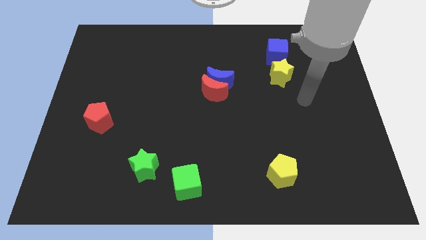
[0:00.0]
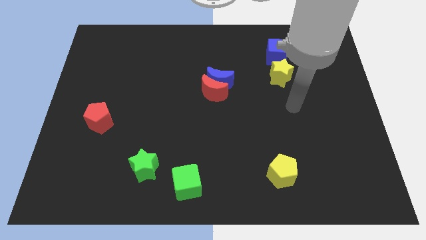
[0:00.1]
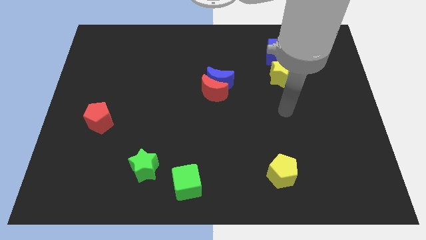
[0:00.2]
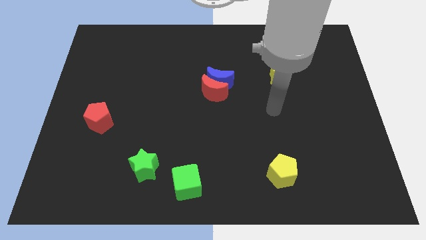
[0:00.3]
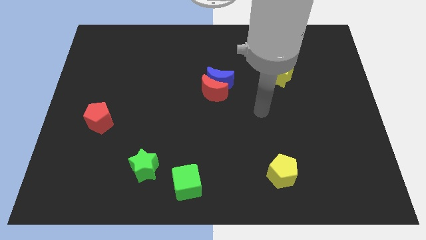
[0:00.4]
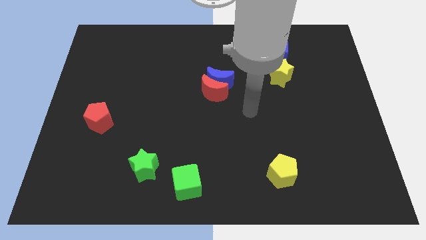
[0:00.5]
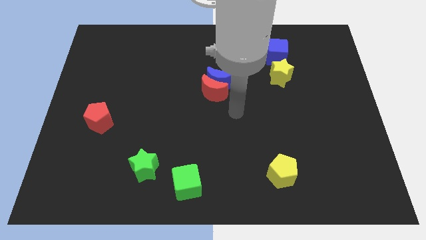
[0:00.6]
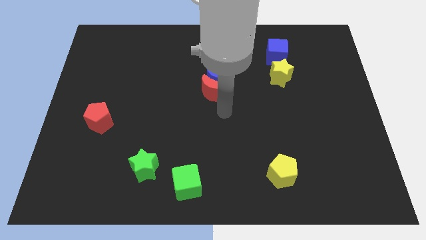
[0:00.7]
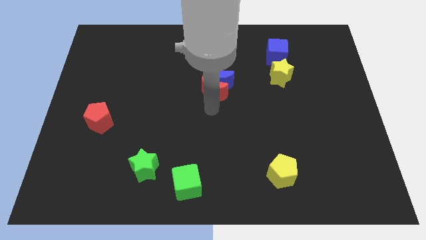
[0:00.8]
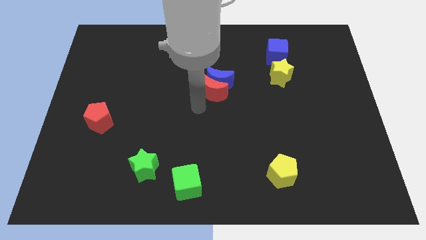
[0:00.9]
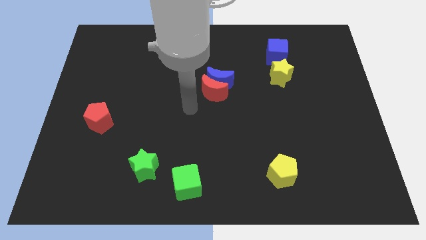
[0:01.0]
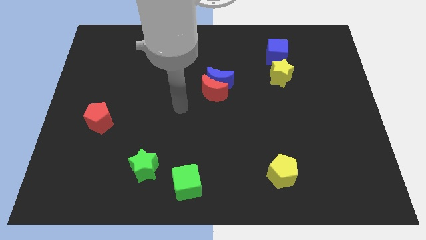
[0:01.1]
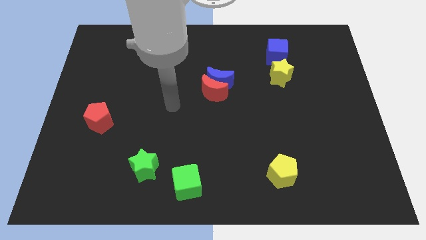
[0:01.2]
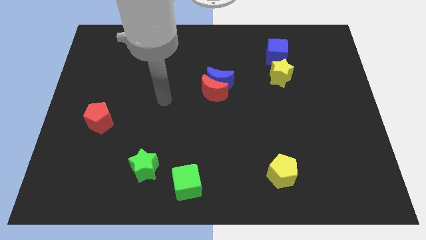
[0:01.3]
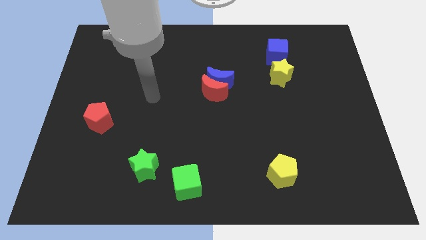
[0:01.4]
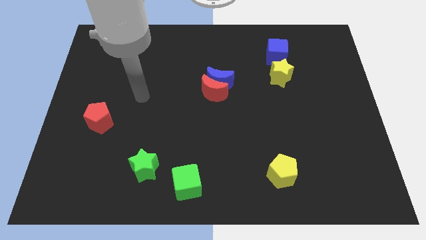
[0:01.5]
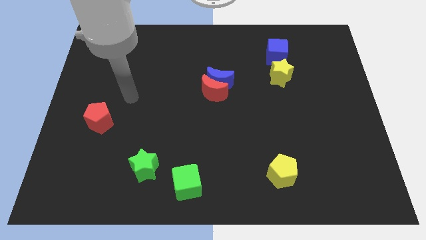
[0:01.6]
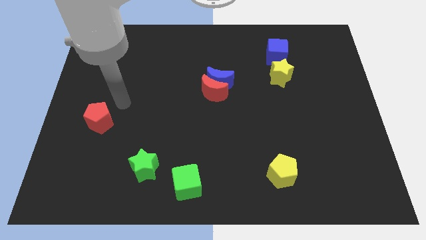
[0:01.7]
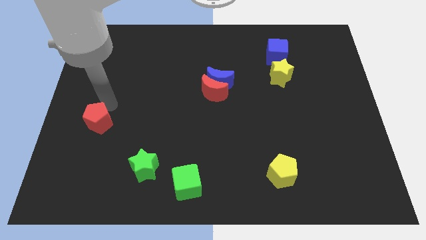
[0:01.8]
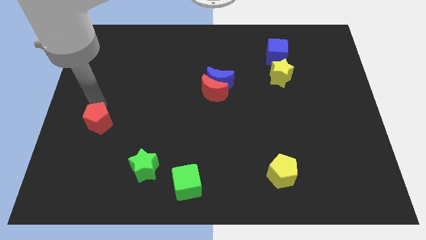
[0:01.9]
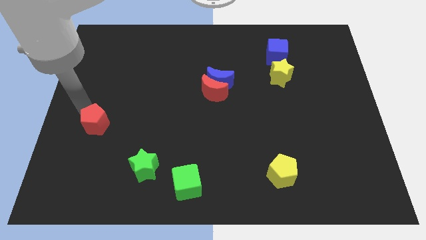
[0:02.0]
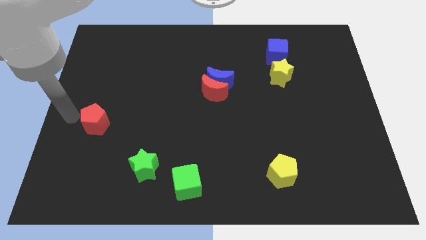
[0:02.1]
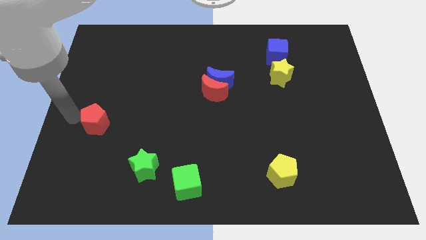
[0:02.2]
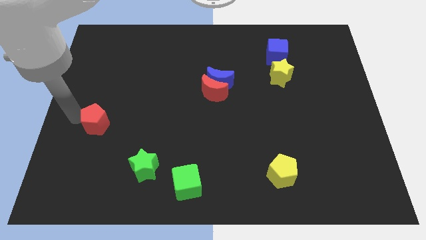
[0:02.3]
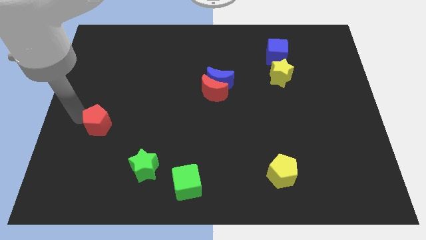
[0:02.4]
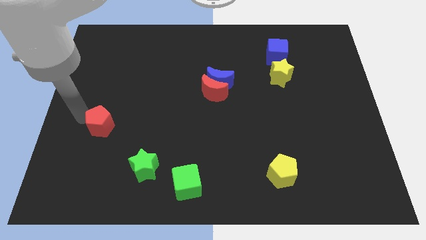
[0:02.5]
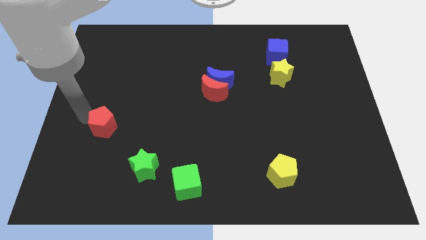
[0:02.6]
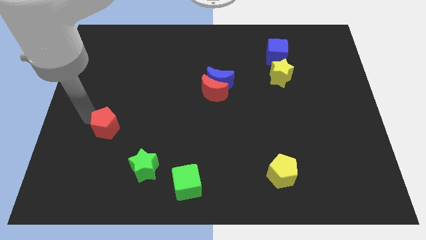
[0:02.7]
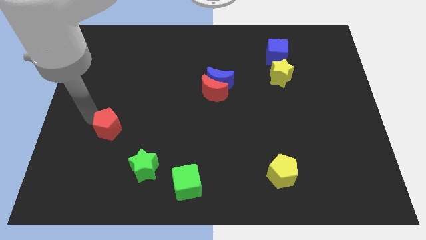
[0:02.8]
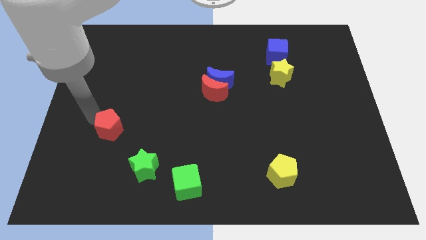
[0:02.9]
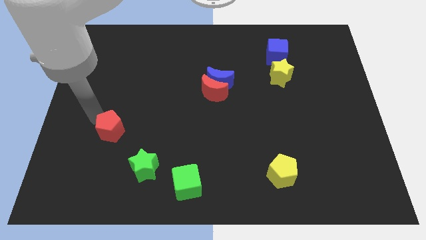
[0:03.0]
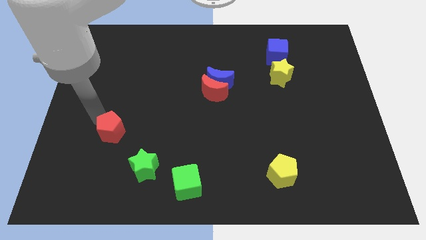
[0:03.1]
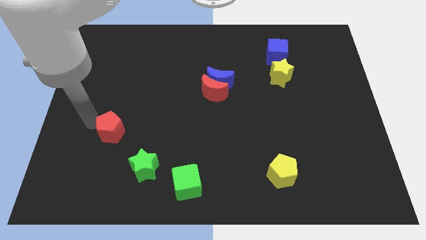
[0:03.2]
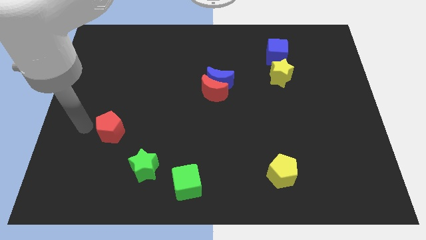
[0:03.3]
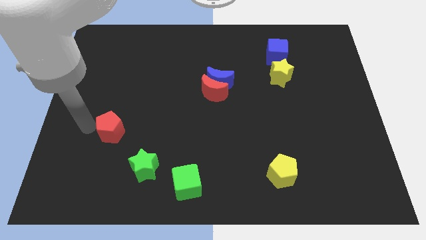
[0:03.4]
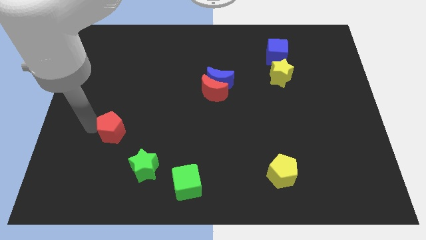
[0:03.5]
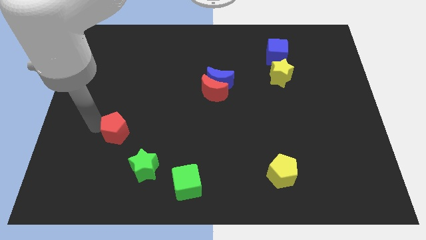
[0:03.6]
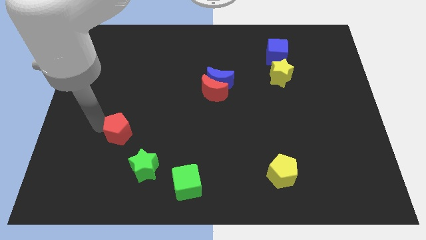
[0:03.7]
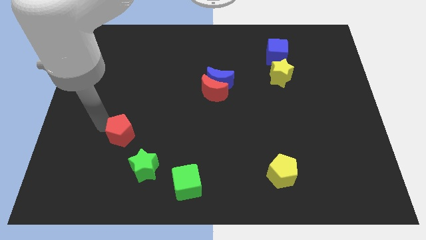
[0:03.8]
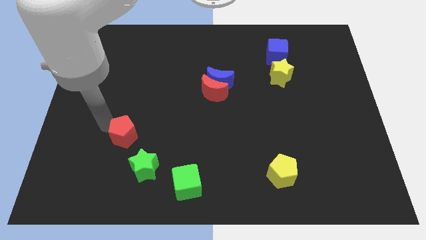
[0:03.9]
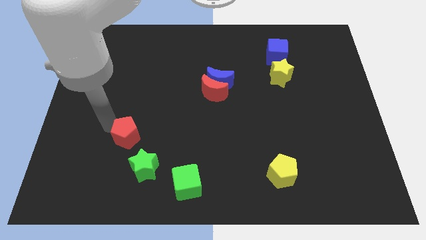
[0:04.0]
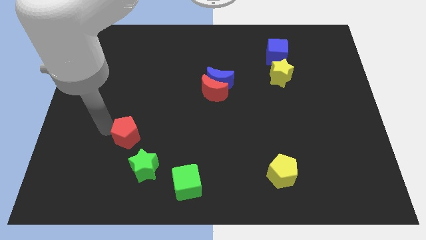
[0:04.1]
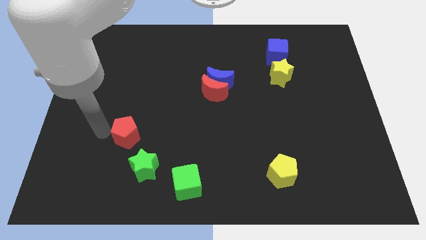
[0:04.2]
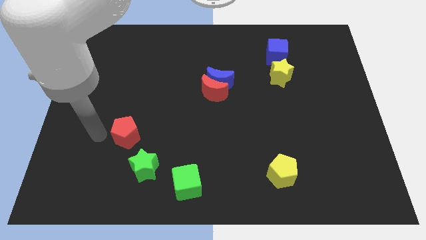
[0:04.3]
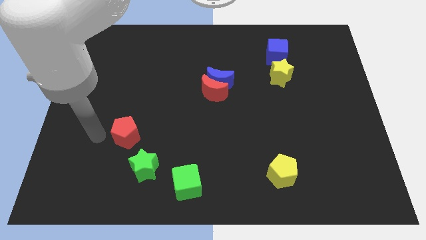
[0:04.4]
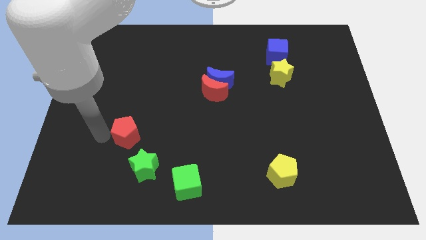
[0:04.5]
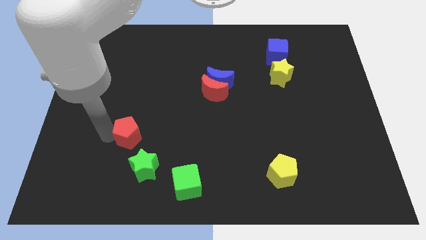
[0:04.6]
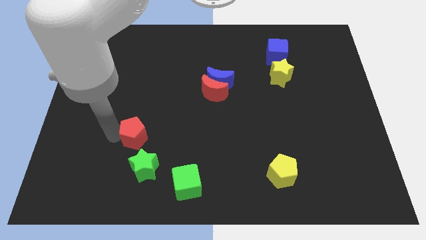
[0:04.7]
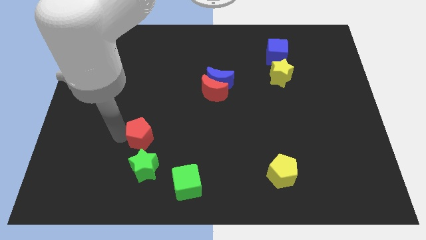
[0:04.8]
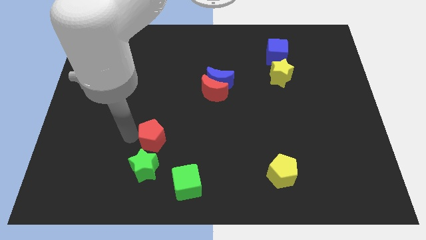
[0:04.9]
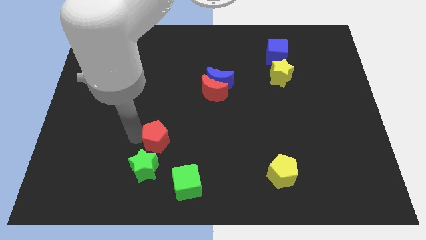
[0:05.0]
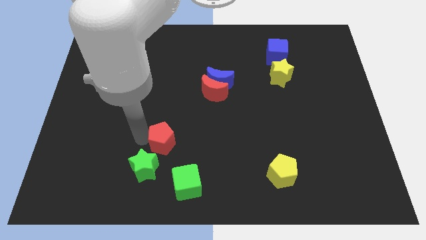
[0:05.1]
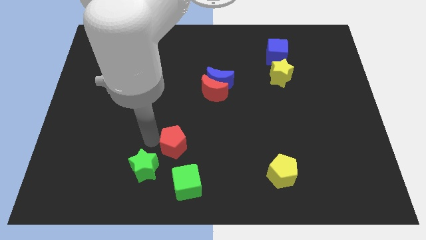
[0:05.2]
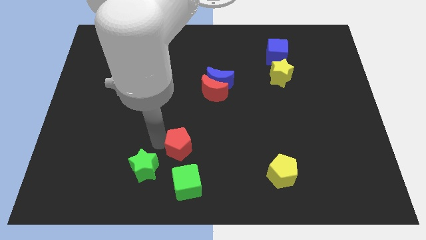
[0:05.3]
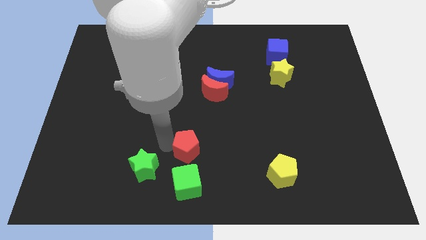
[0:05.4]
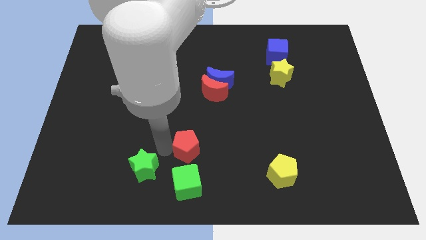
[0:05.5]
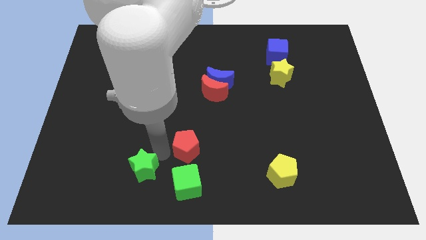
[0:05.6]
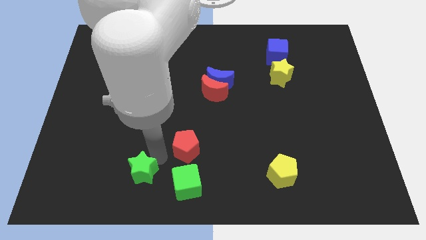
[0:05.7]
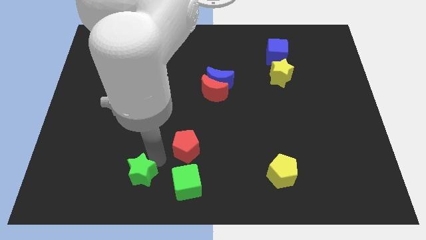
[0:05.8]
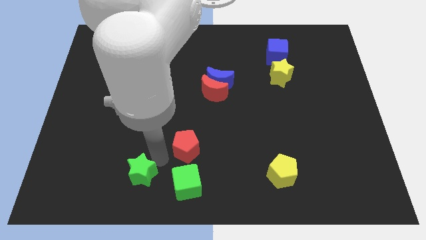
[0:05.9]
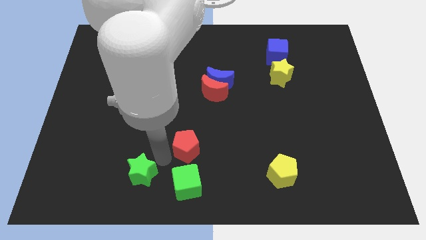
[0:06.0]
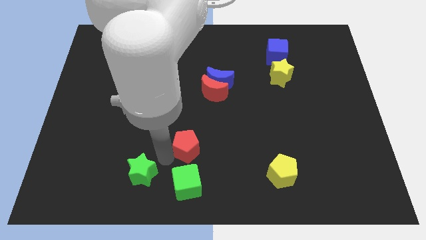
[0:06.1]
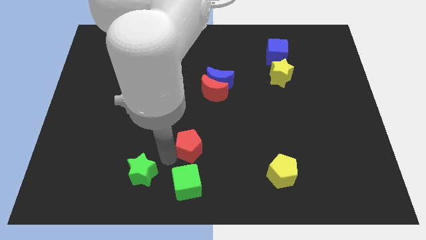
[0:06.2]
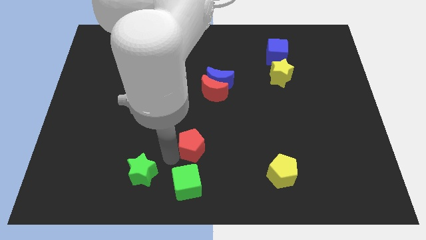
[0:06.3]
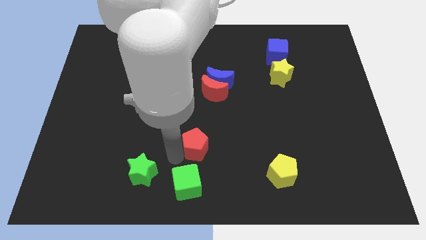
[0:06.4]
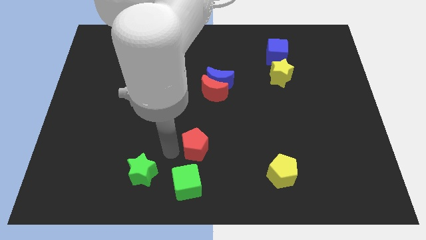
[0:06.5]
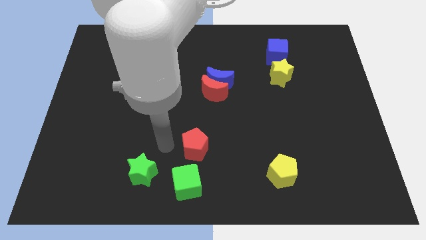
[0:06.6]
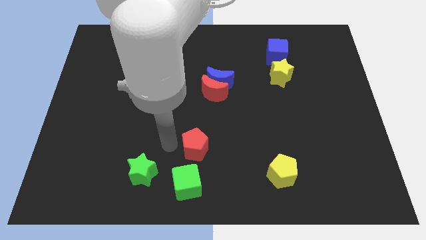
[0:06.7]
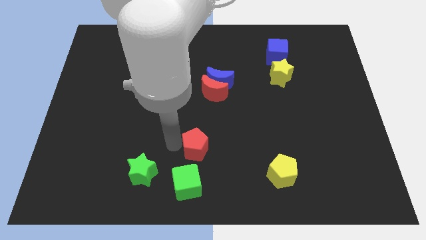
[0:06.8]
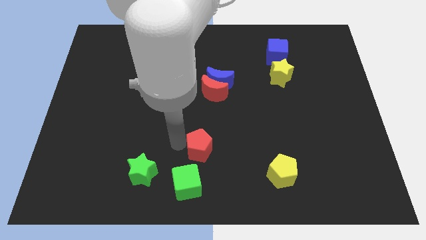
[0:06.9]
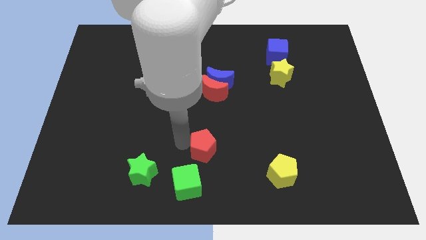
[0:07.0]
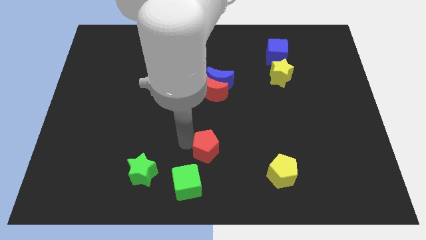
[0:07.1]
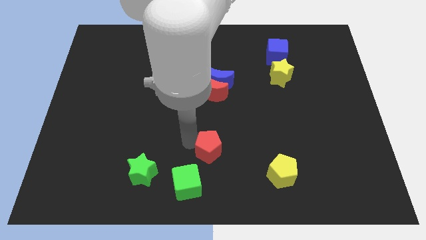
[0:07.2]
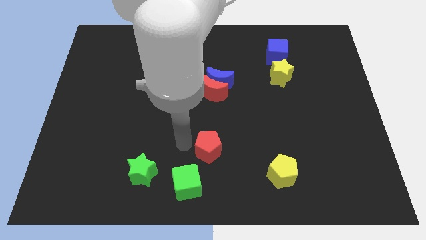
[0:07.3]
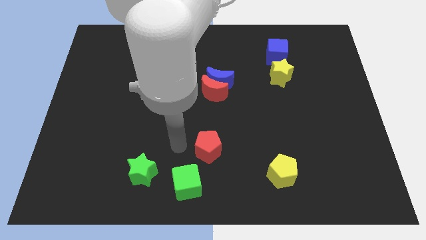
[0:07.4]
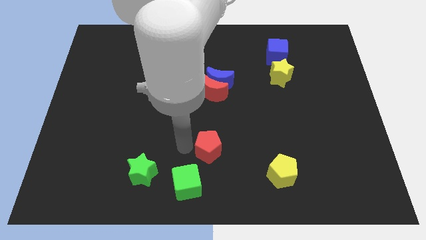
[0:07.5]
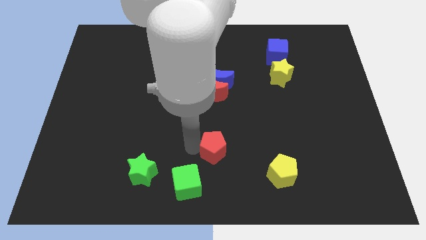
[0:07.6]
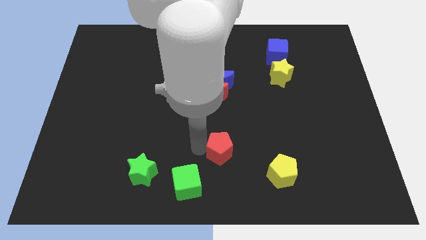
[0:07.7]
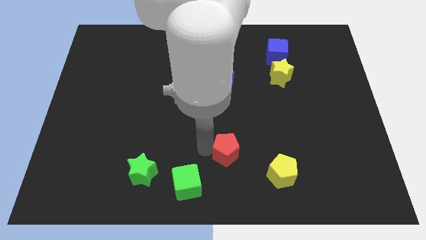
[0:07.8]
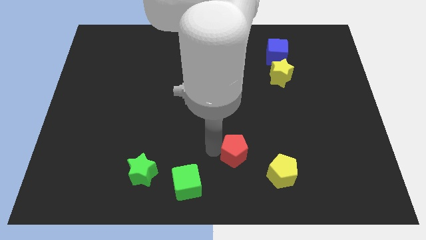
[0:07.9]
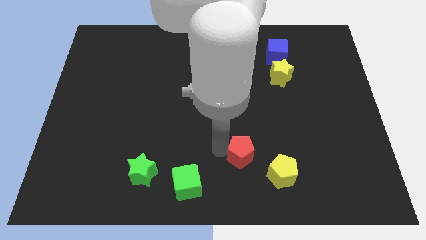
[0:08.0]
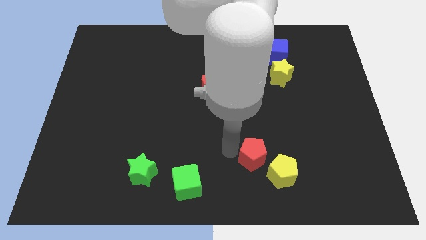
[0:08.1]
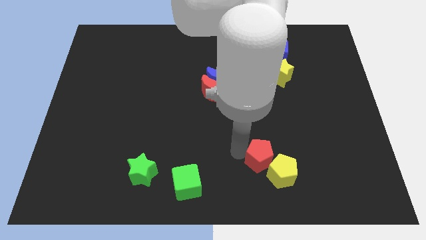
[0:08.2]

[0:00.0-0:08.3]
move the red pentagon close to the yellow pentagon
